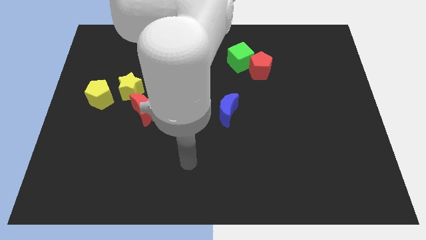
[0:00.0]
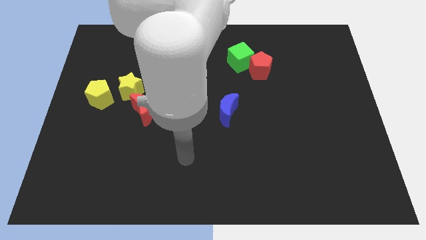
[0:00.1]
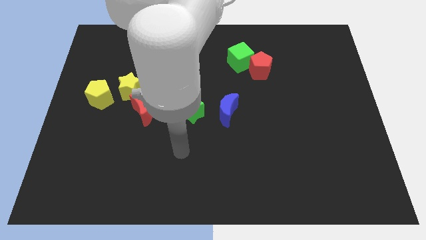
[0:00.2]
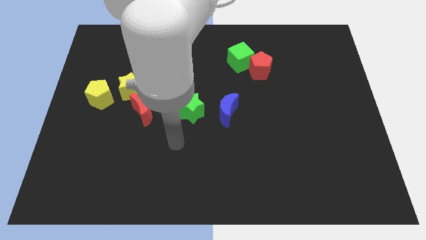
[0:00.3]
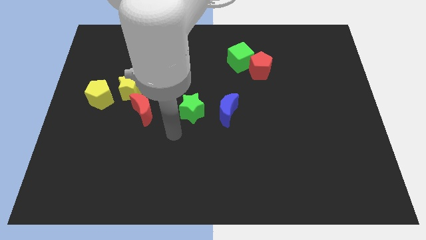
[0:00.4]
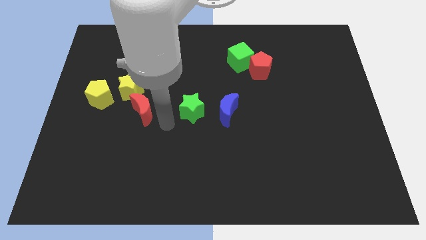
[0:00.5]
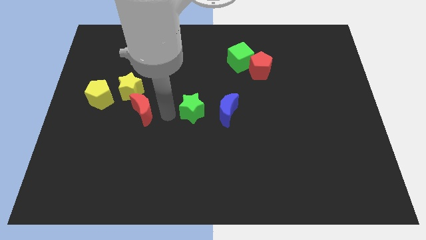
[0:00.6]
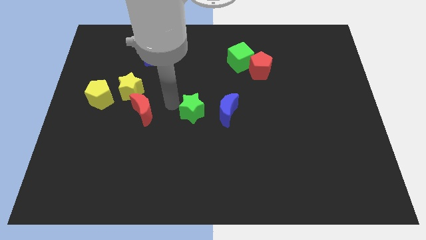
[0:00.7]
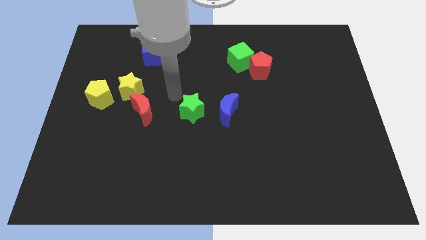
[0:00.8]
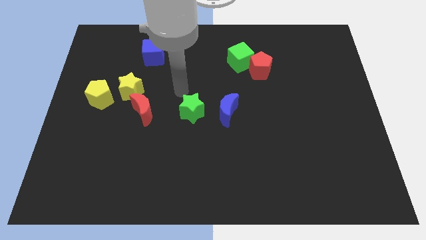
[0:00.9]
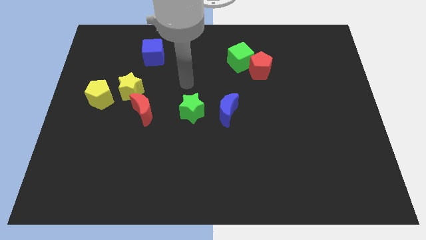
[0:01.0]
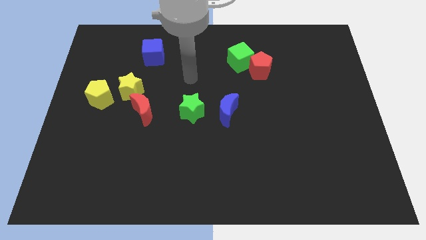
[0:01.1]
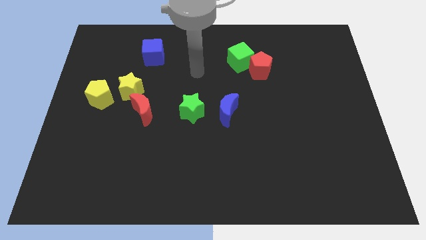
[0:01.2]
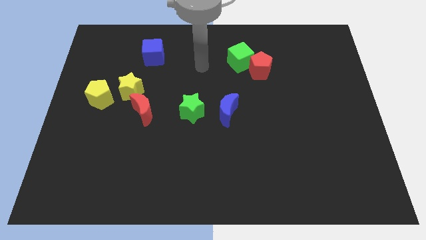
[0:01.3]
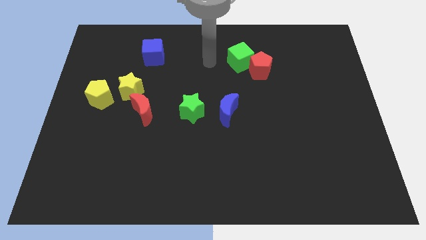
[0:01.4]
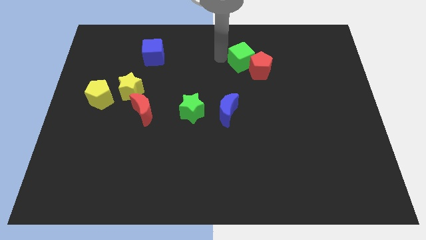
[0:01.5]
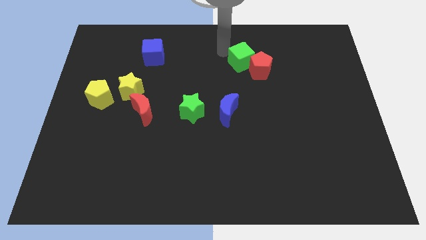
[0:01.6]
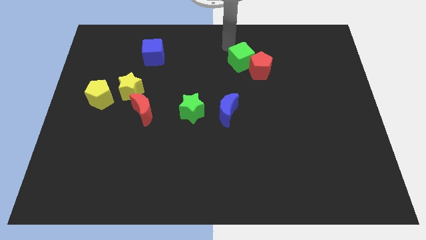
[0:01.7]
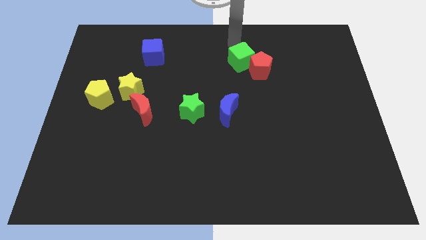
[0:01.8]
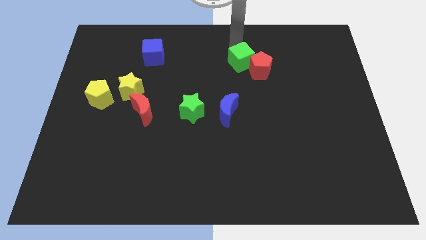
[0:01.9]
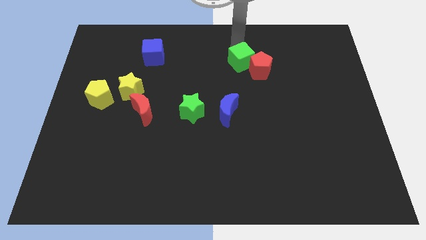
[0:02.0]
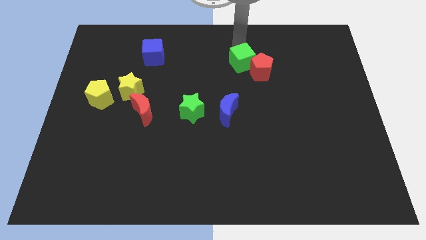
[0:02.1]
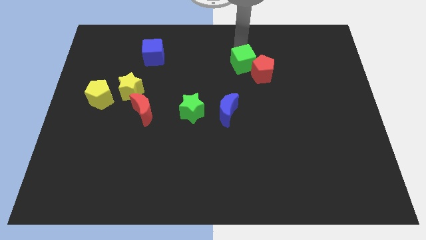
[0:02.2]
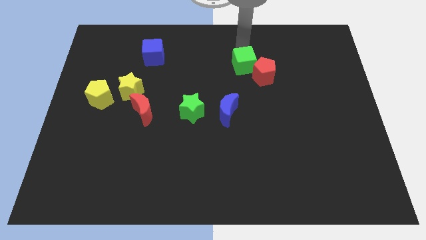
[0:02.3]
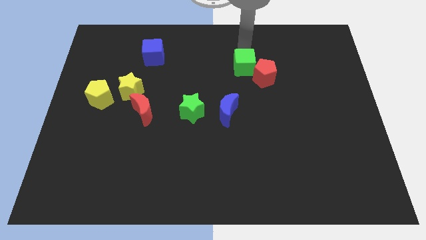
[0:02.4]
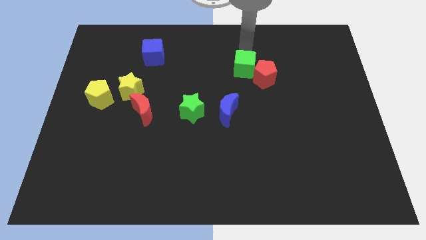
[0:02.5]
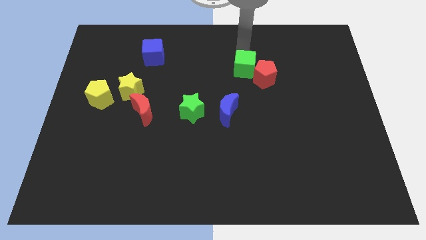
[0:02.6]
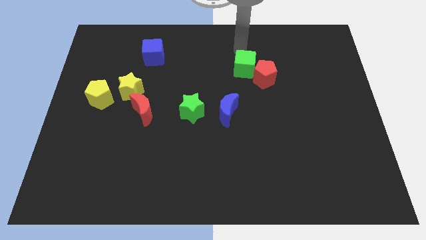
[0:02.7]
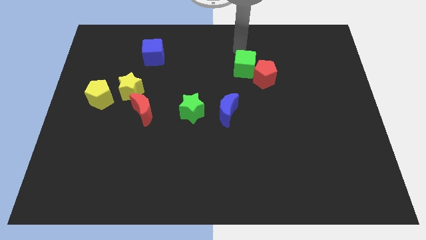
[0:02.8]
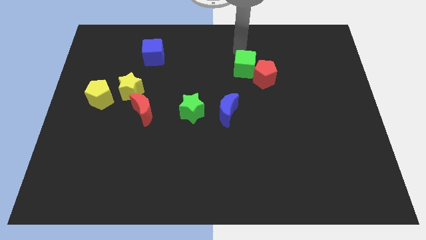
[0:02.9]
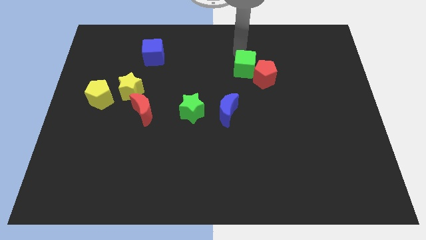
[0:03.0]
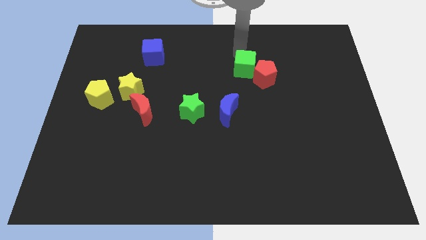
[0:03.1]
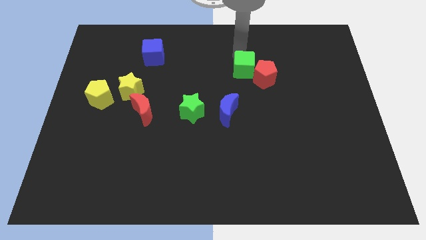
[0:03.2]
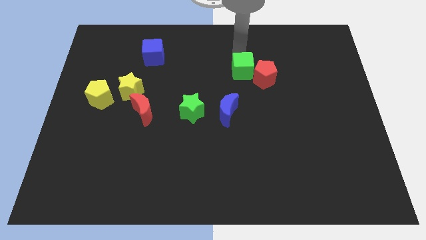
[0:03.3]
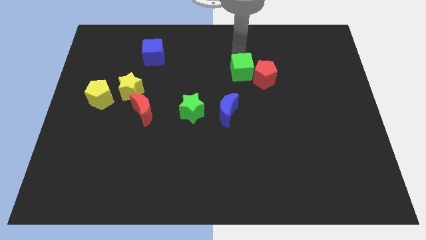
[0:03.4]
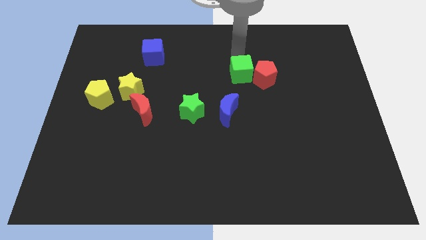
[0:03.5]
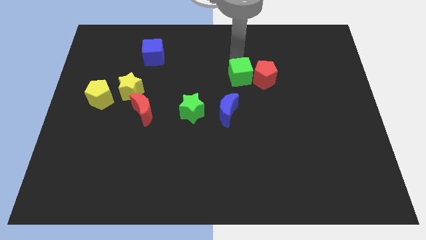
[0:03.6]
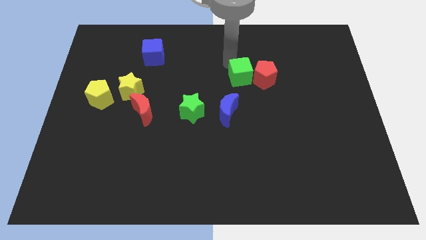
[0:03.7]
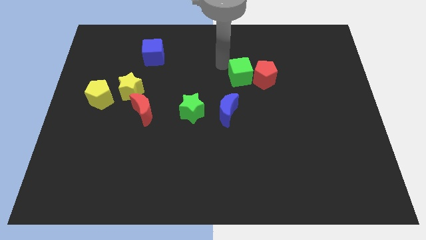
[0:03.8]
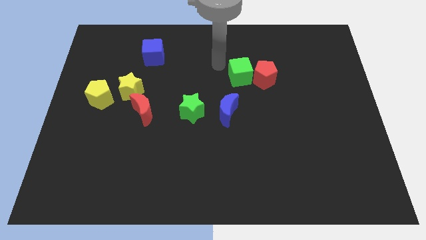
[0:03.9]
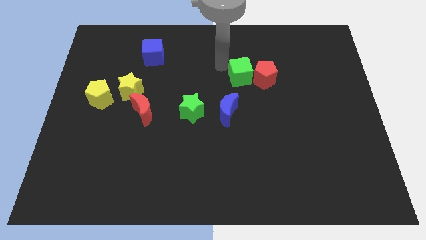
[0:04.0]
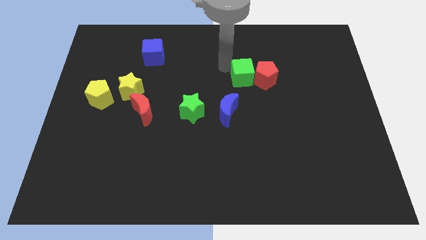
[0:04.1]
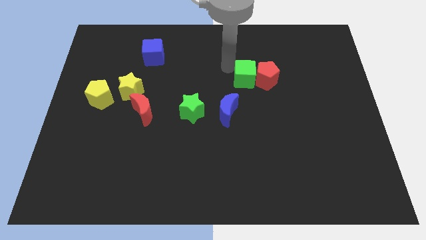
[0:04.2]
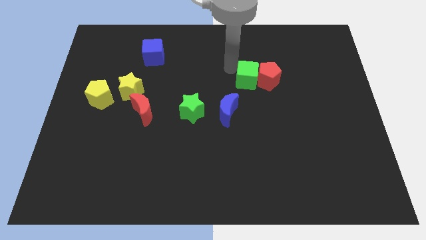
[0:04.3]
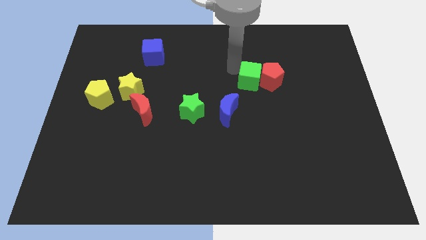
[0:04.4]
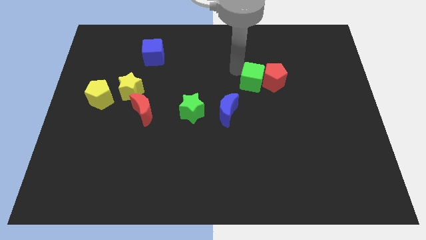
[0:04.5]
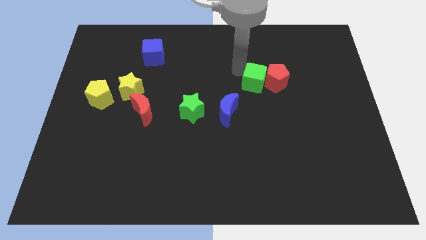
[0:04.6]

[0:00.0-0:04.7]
slightly move the green cube down and then right

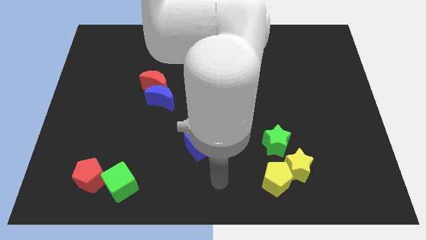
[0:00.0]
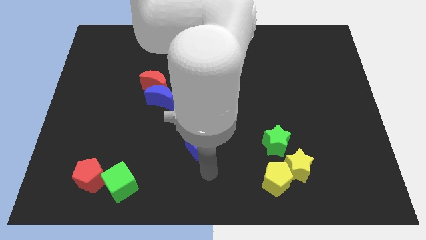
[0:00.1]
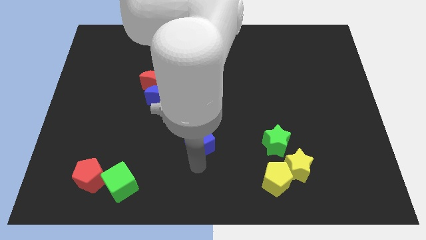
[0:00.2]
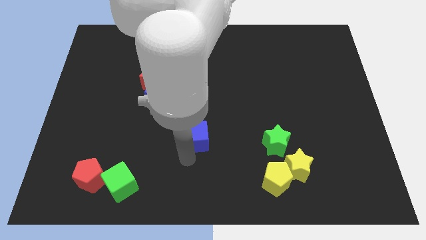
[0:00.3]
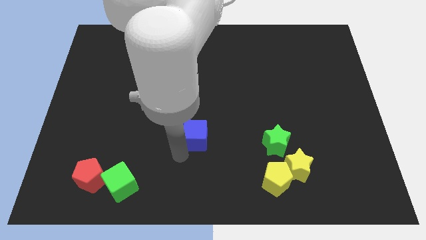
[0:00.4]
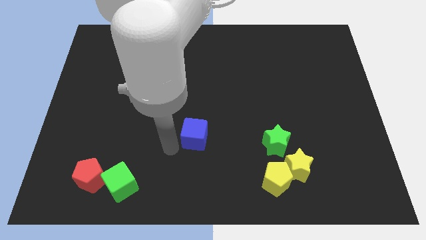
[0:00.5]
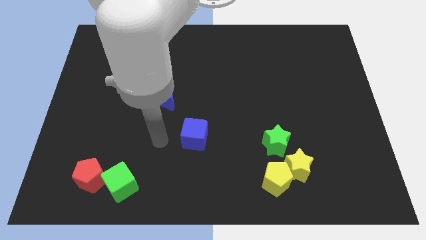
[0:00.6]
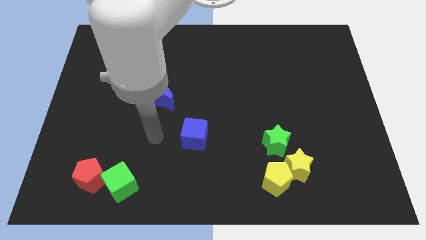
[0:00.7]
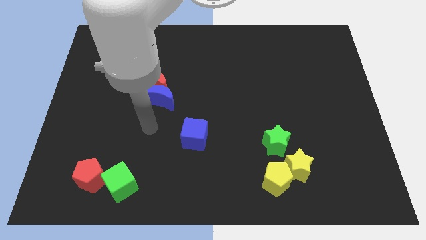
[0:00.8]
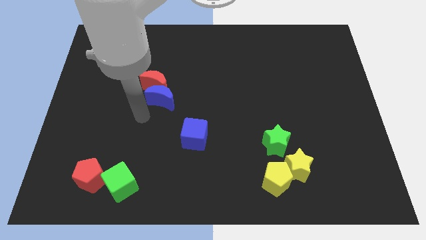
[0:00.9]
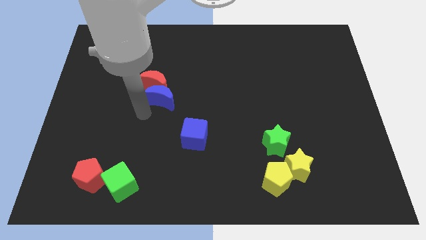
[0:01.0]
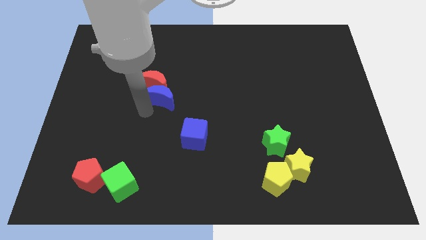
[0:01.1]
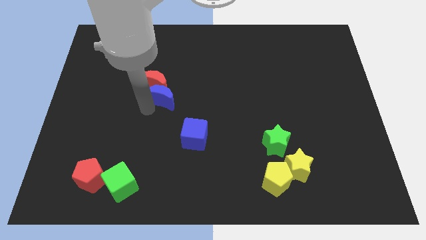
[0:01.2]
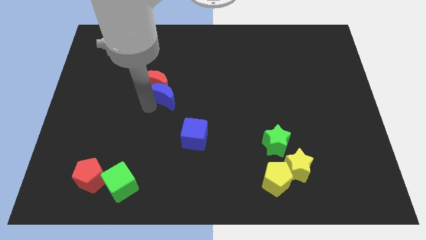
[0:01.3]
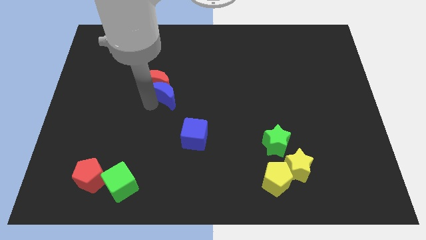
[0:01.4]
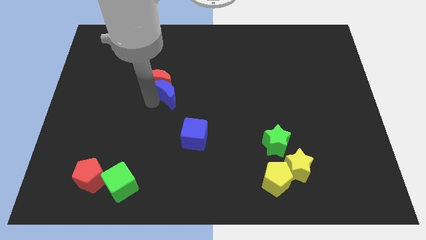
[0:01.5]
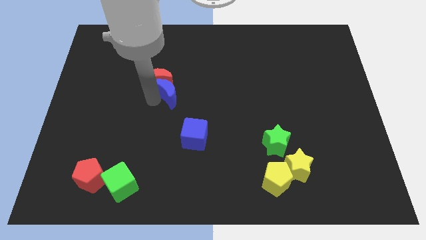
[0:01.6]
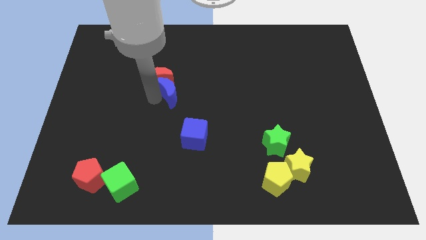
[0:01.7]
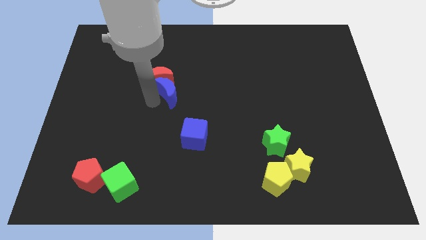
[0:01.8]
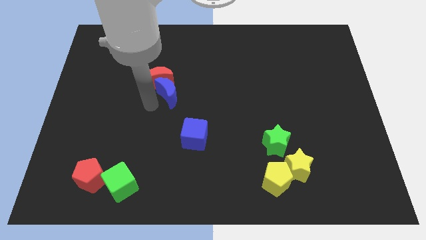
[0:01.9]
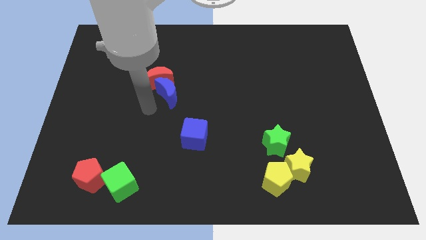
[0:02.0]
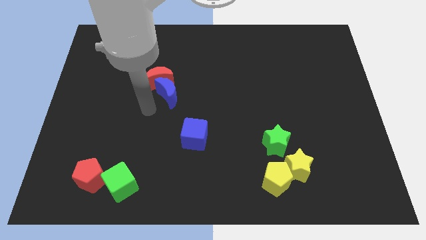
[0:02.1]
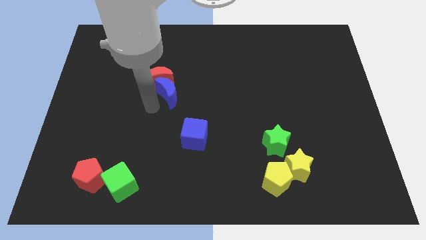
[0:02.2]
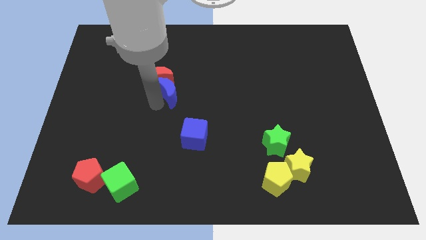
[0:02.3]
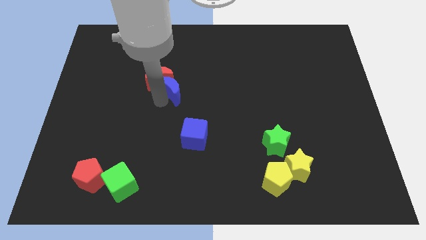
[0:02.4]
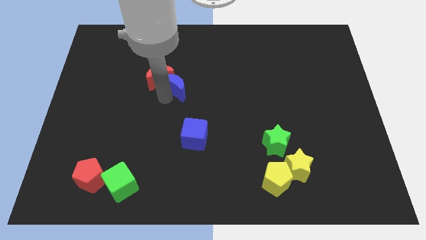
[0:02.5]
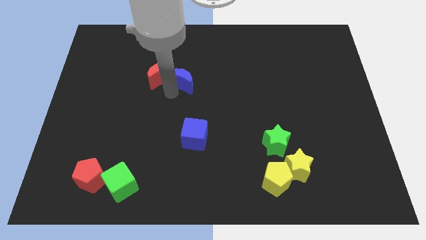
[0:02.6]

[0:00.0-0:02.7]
slide the blue moon upwards and right diagonally a little

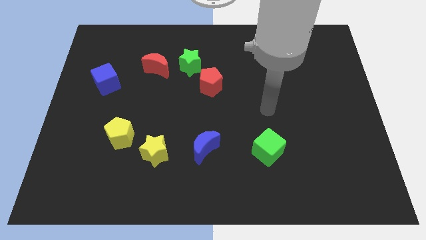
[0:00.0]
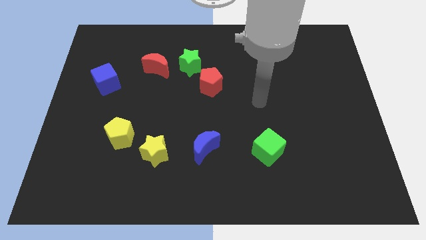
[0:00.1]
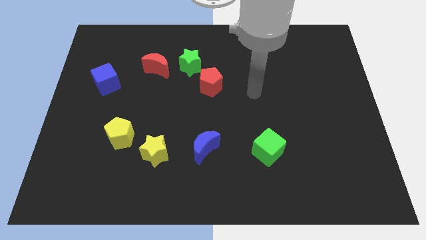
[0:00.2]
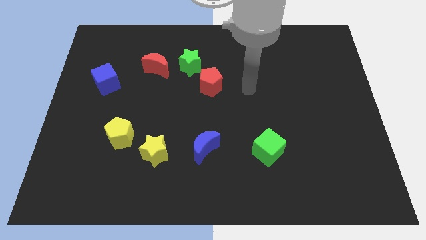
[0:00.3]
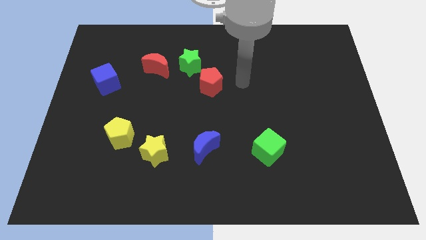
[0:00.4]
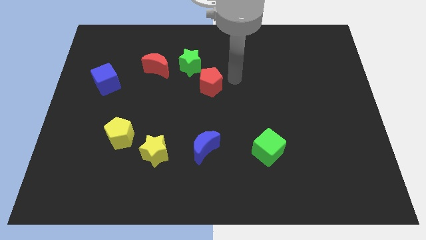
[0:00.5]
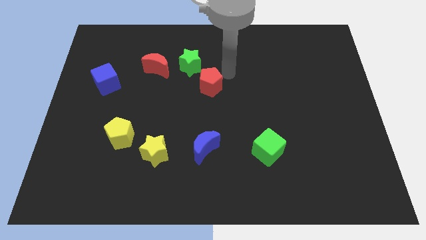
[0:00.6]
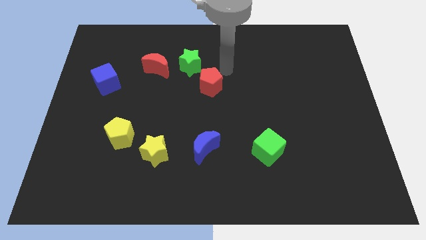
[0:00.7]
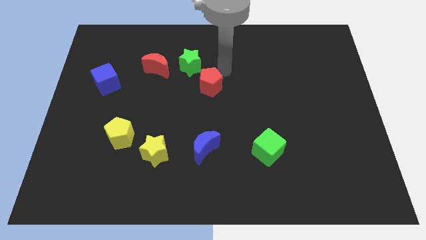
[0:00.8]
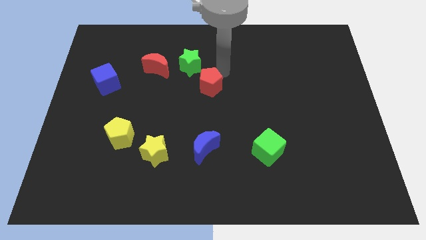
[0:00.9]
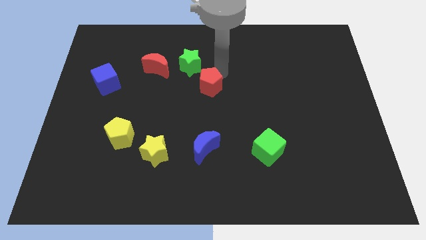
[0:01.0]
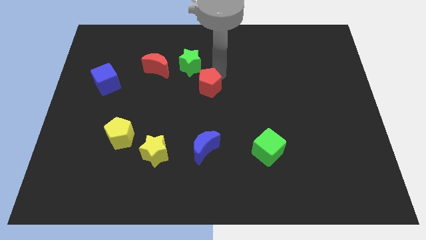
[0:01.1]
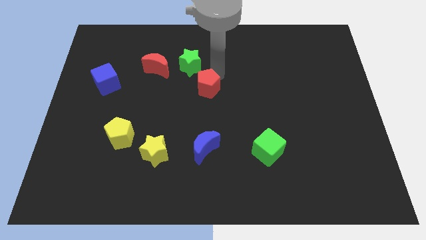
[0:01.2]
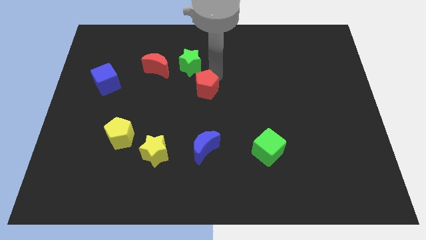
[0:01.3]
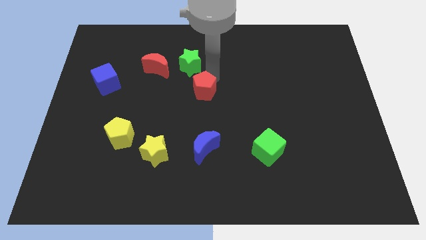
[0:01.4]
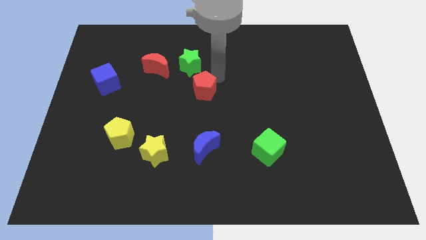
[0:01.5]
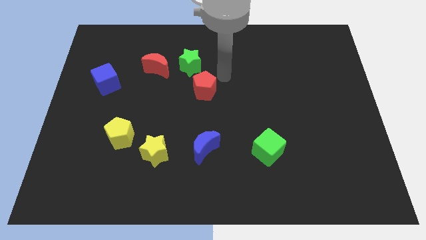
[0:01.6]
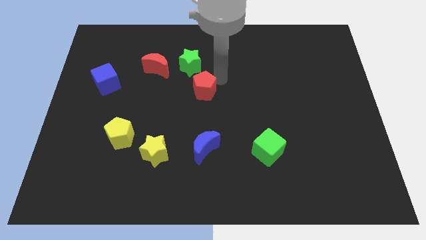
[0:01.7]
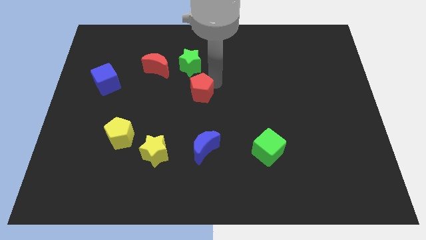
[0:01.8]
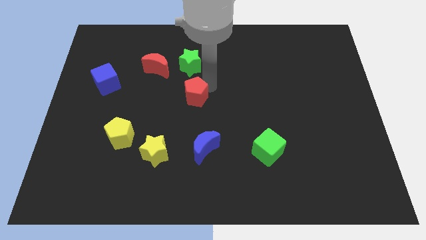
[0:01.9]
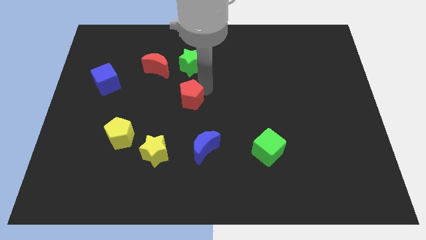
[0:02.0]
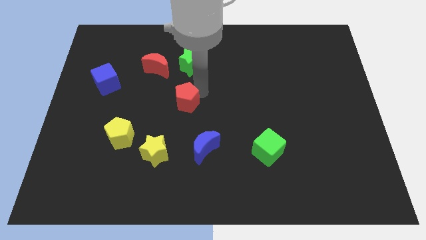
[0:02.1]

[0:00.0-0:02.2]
move the red pentagon down and left somewhat
